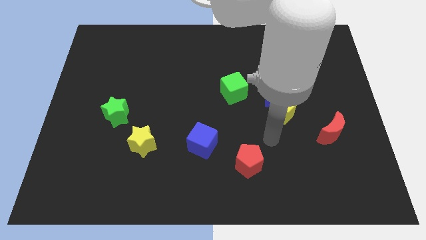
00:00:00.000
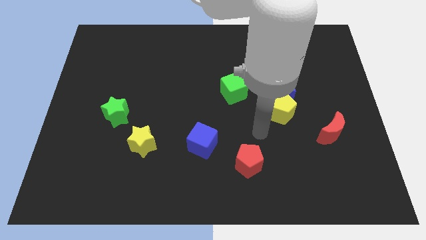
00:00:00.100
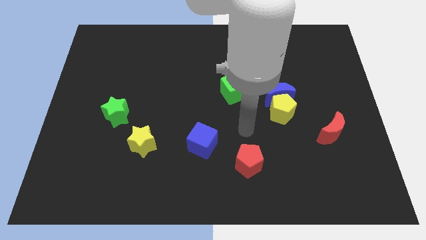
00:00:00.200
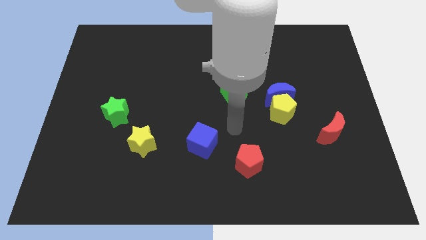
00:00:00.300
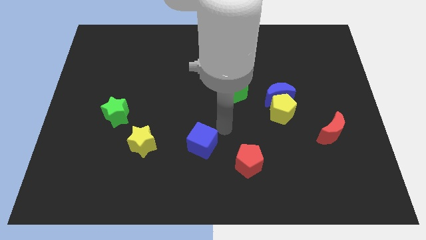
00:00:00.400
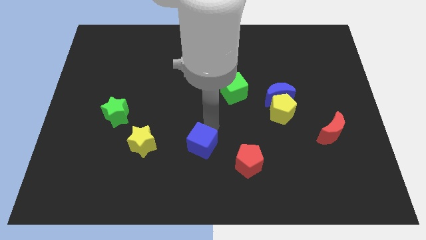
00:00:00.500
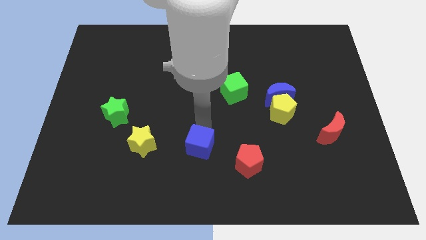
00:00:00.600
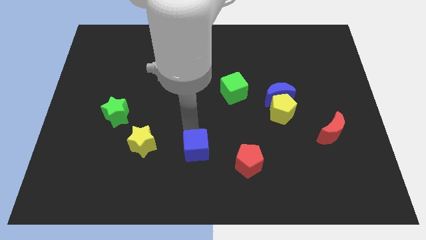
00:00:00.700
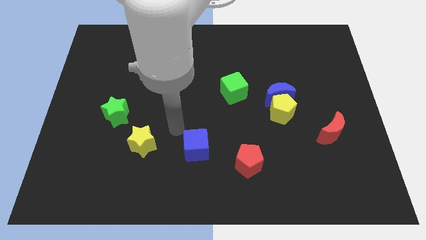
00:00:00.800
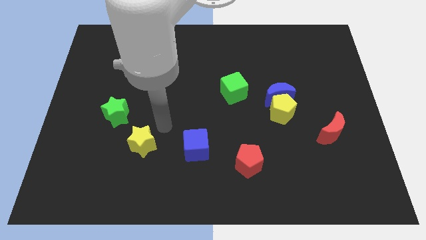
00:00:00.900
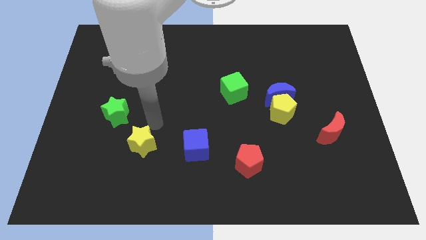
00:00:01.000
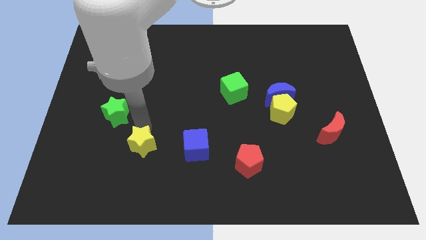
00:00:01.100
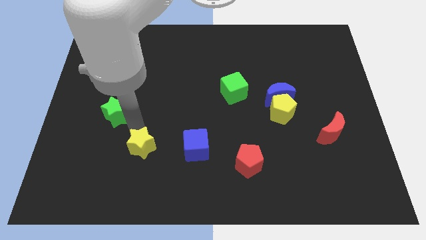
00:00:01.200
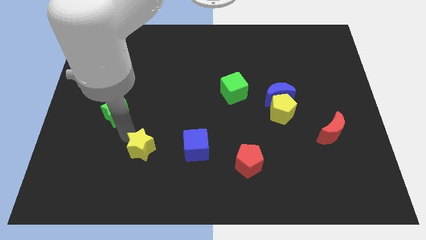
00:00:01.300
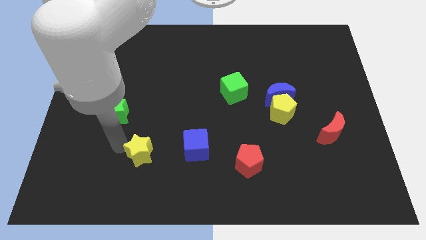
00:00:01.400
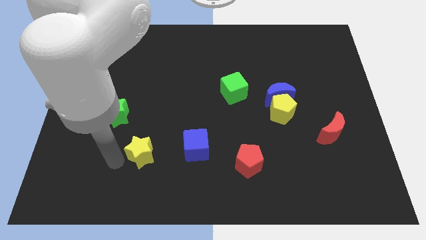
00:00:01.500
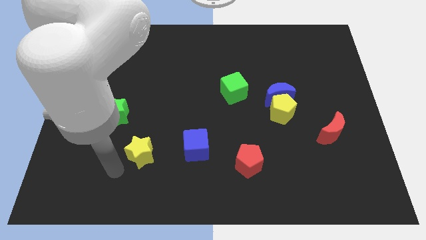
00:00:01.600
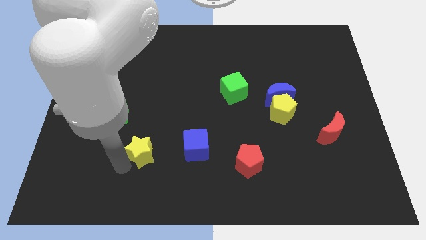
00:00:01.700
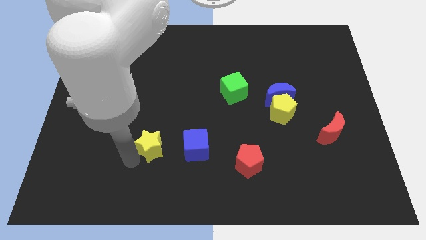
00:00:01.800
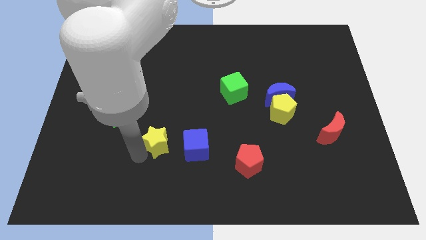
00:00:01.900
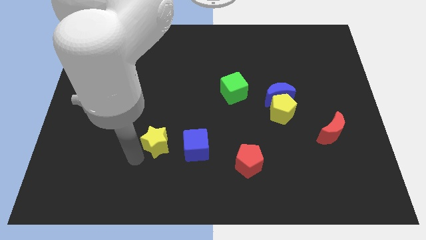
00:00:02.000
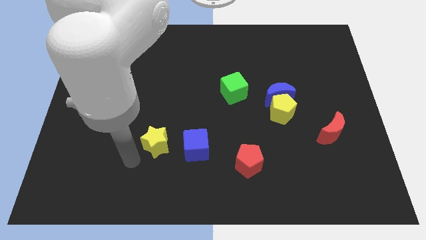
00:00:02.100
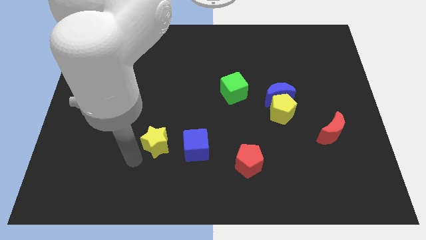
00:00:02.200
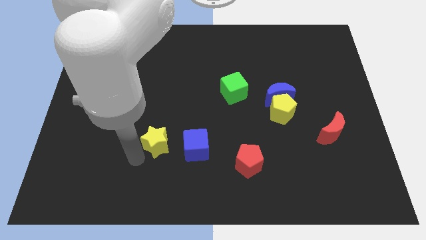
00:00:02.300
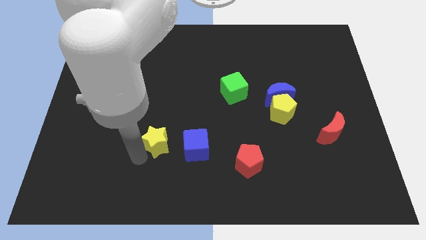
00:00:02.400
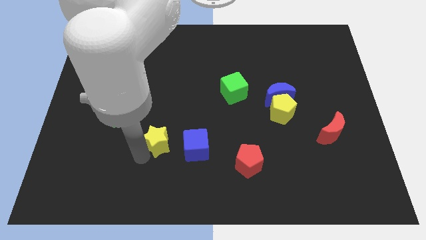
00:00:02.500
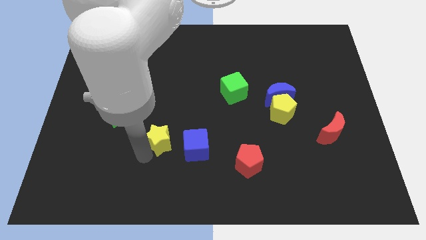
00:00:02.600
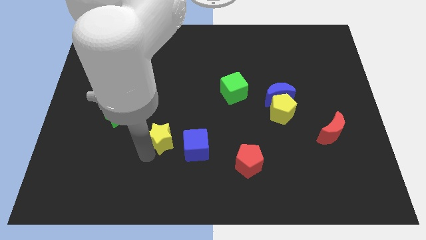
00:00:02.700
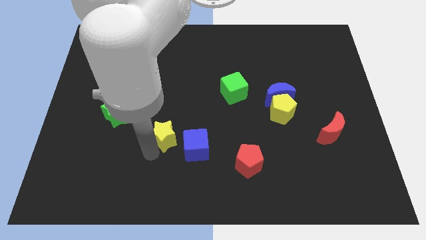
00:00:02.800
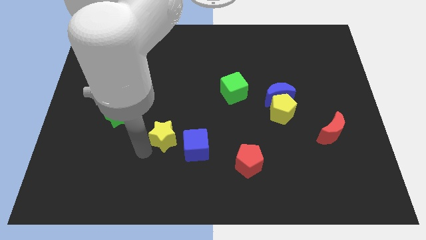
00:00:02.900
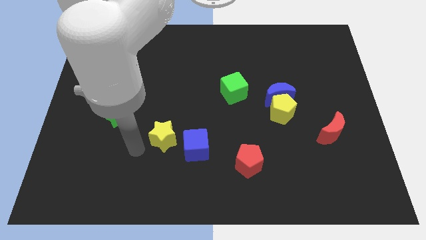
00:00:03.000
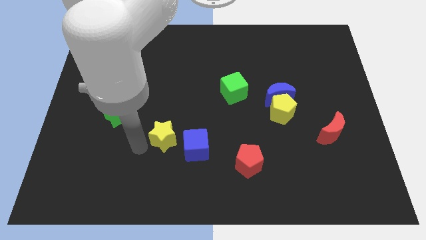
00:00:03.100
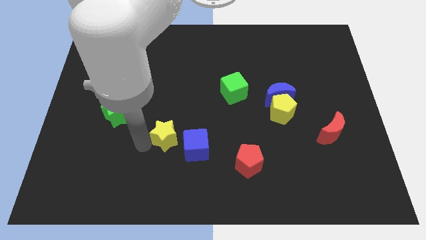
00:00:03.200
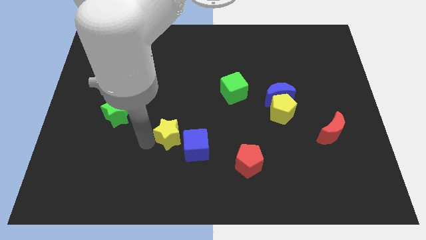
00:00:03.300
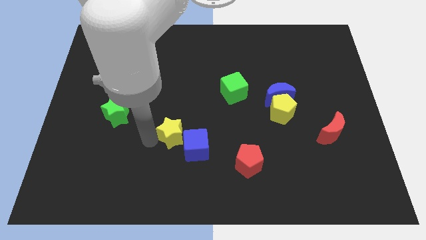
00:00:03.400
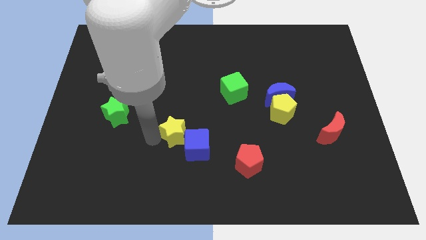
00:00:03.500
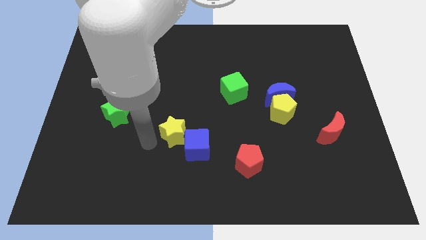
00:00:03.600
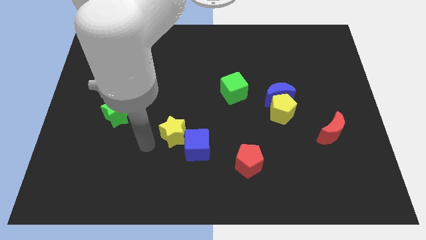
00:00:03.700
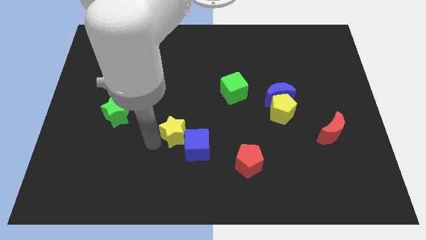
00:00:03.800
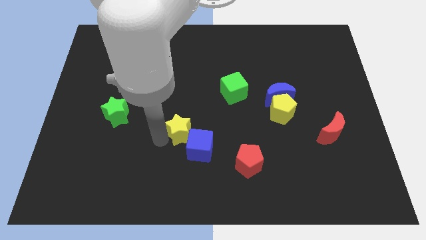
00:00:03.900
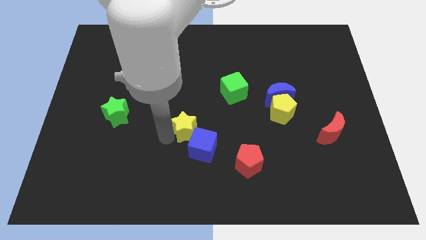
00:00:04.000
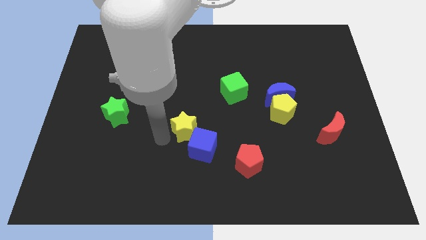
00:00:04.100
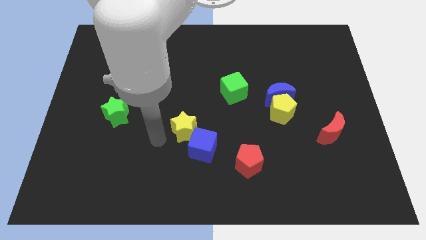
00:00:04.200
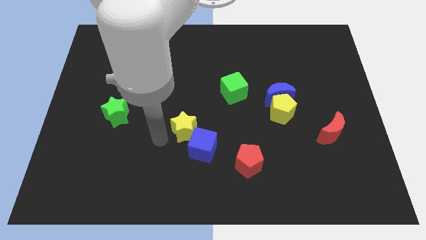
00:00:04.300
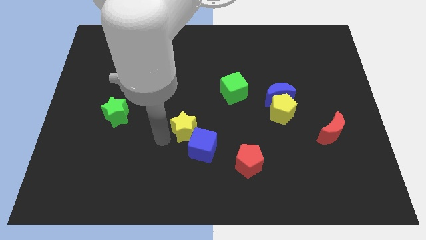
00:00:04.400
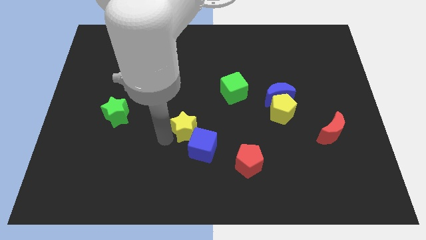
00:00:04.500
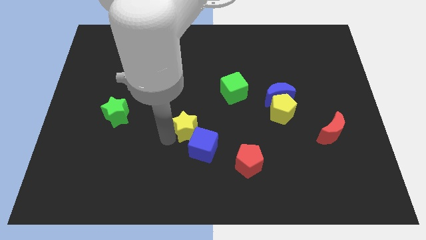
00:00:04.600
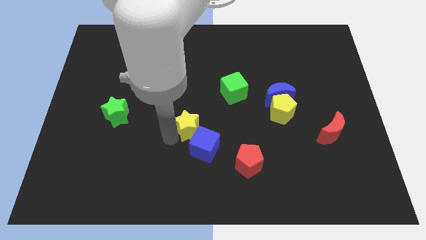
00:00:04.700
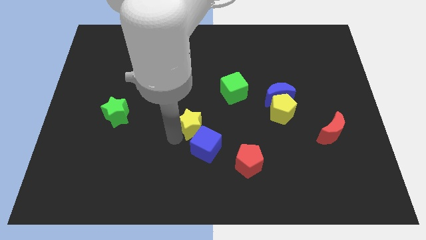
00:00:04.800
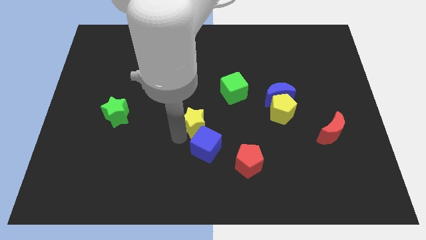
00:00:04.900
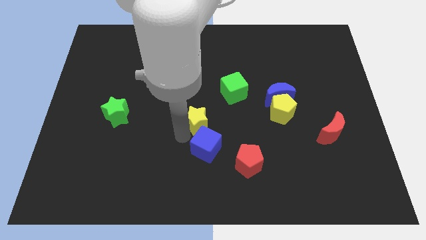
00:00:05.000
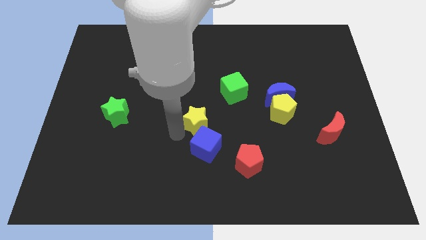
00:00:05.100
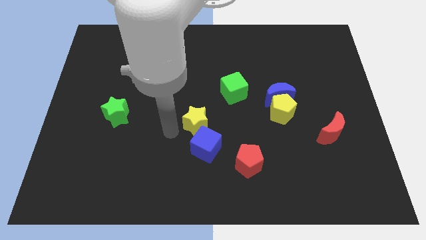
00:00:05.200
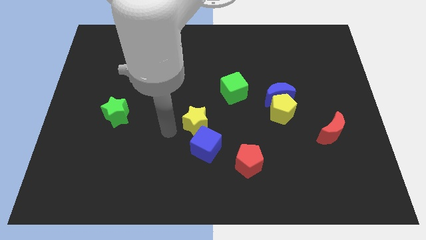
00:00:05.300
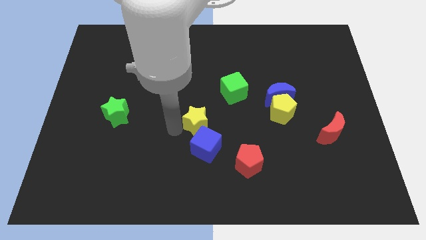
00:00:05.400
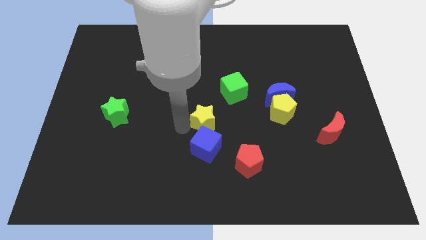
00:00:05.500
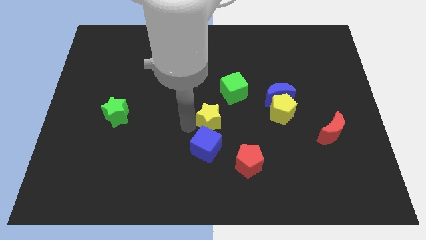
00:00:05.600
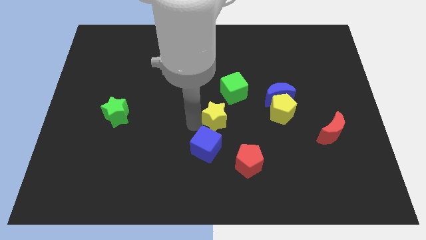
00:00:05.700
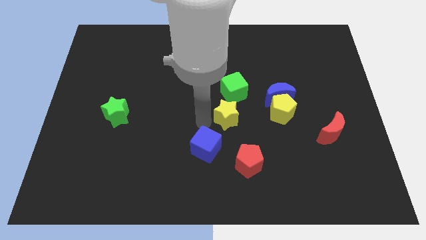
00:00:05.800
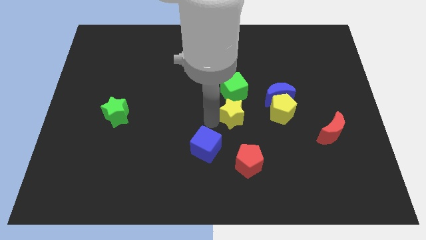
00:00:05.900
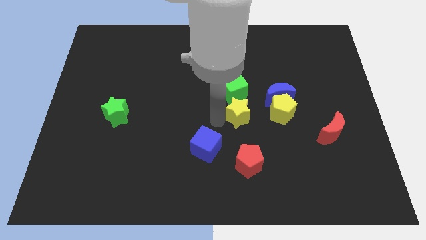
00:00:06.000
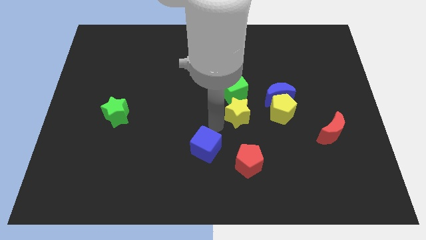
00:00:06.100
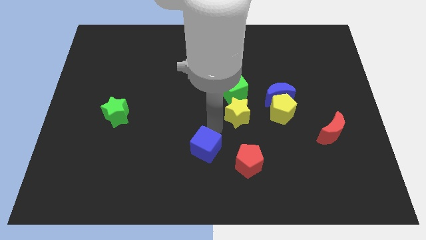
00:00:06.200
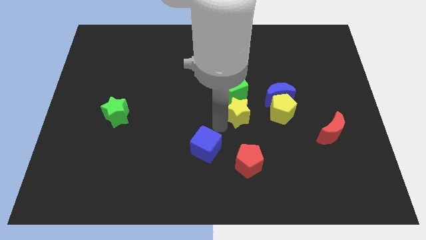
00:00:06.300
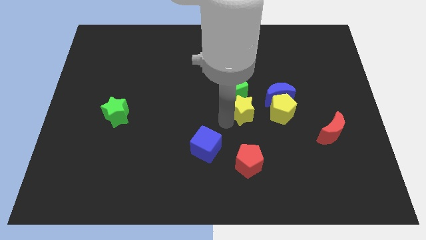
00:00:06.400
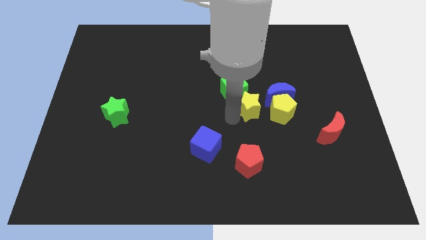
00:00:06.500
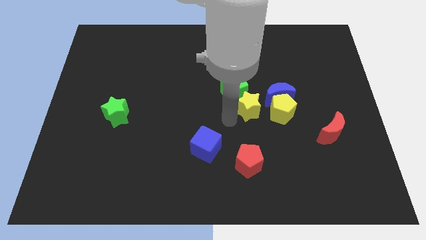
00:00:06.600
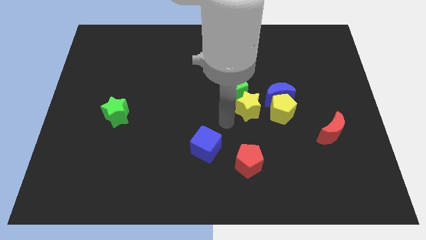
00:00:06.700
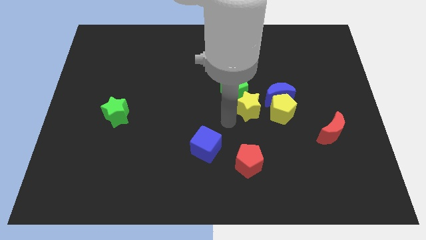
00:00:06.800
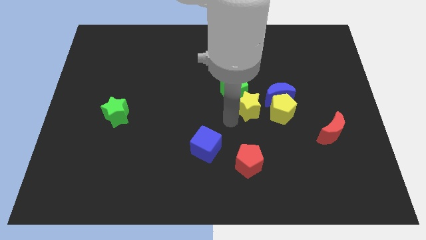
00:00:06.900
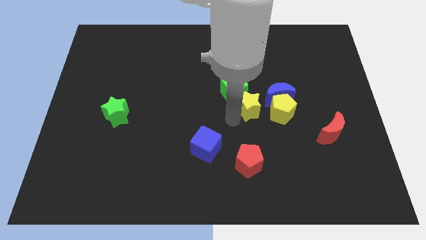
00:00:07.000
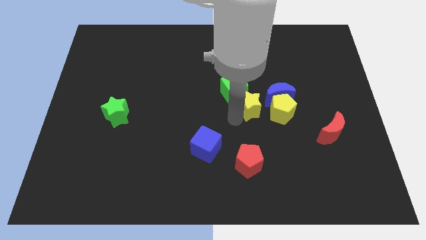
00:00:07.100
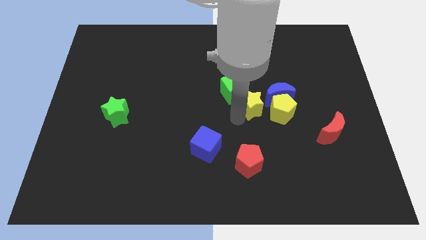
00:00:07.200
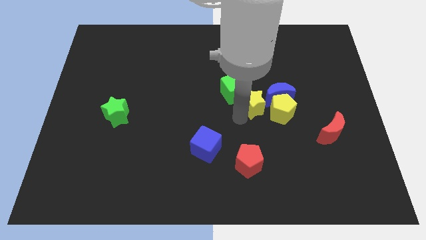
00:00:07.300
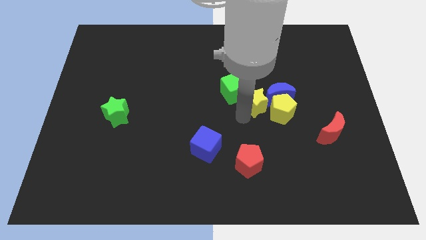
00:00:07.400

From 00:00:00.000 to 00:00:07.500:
move the yellow star next to the blue moon
